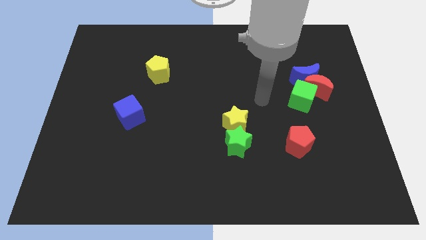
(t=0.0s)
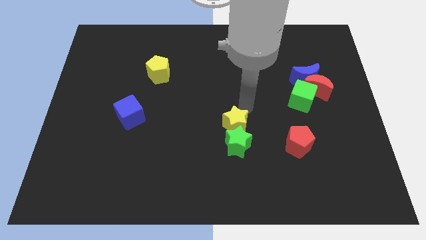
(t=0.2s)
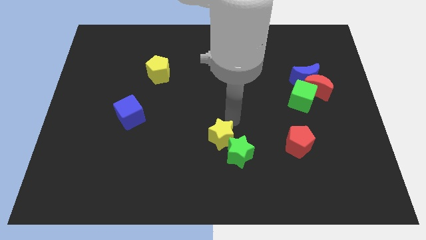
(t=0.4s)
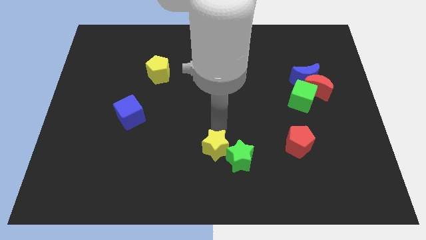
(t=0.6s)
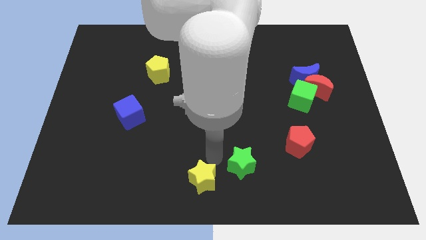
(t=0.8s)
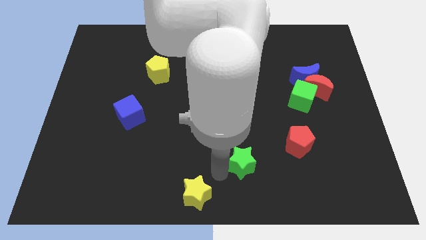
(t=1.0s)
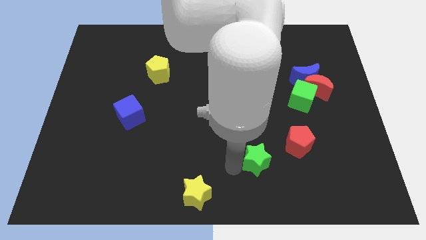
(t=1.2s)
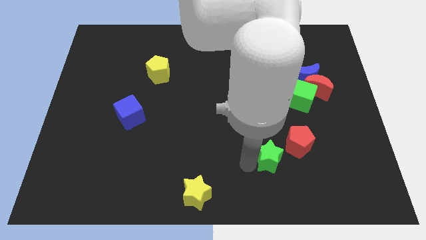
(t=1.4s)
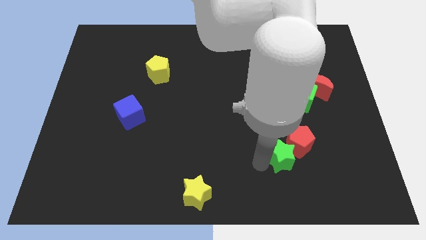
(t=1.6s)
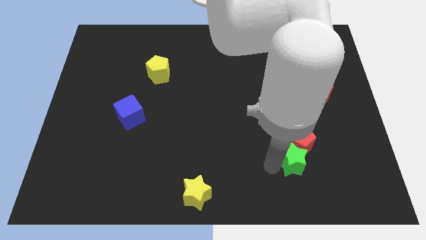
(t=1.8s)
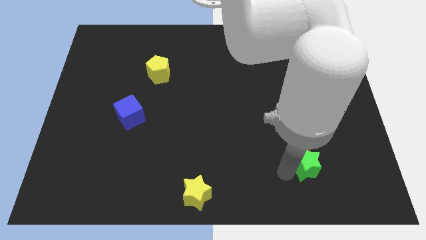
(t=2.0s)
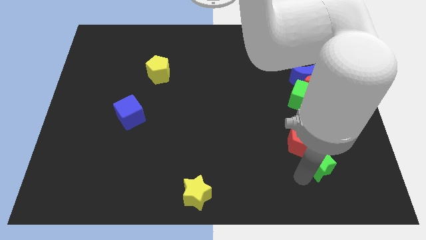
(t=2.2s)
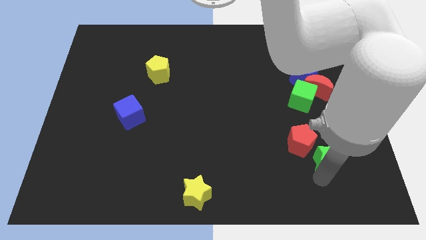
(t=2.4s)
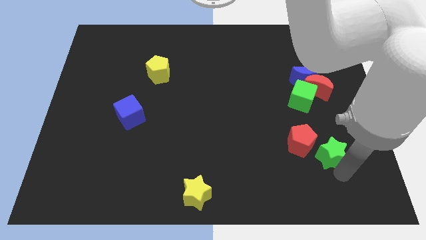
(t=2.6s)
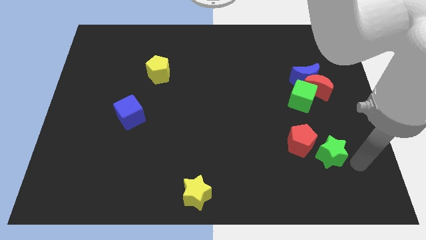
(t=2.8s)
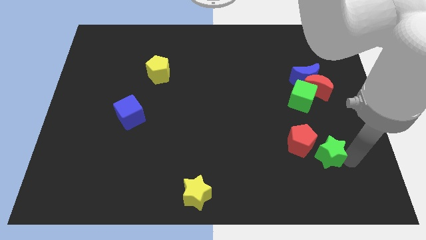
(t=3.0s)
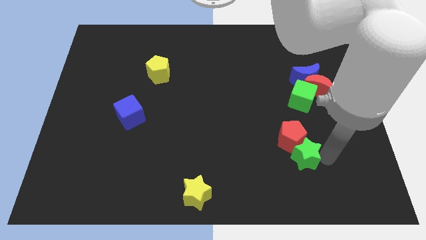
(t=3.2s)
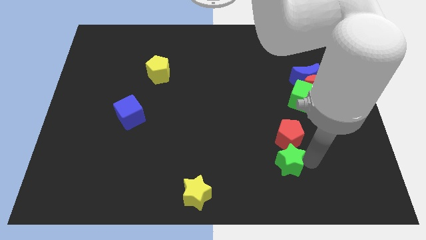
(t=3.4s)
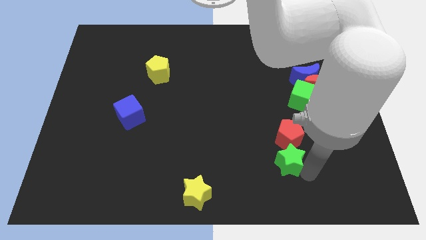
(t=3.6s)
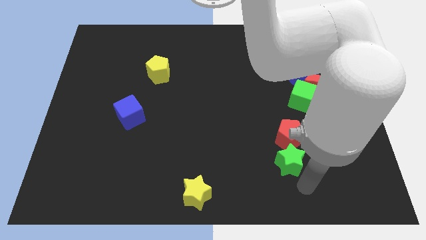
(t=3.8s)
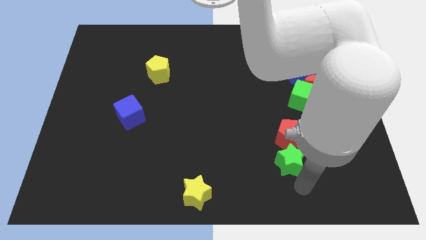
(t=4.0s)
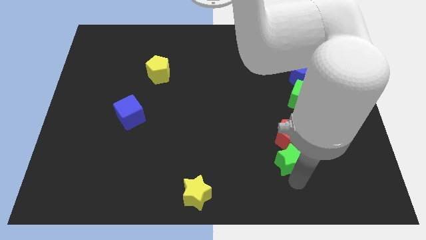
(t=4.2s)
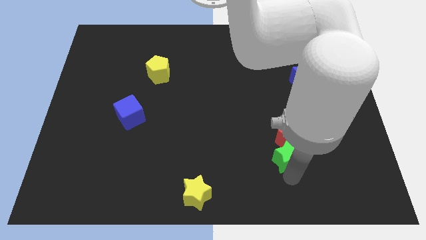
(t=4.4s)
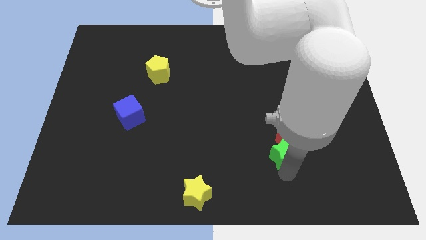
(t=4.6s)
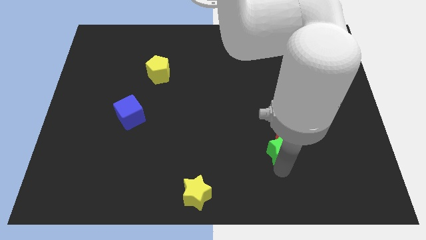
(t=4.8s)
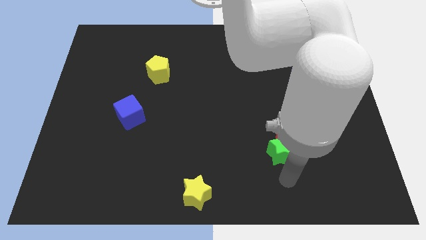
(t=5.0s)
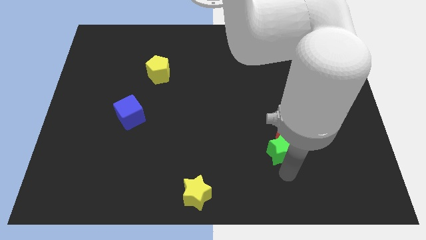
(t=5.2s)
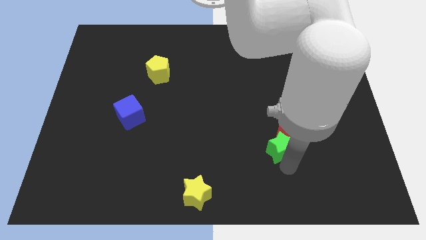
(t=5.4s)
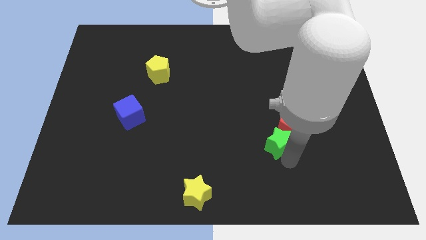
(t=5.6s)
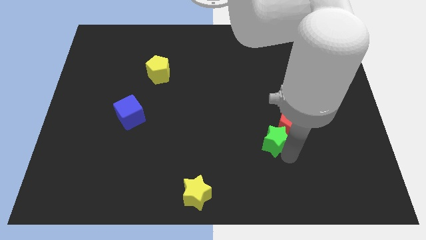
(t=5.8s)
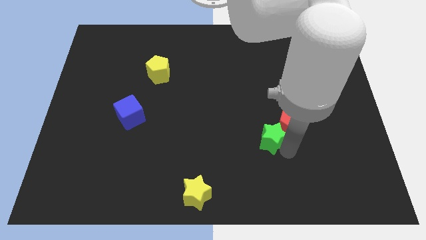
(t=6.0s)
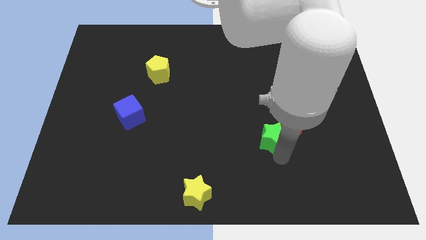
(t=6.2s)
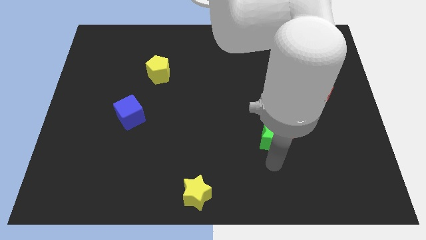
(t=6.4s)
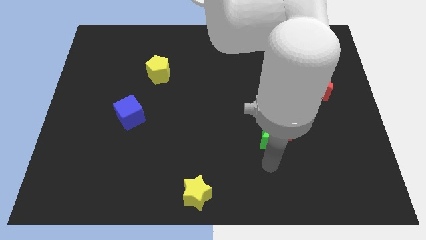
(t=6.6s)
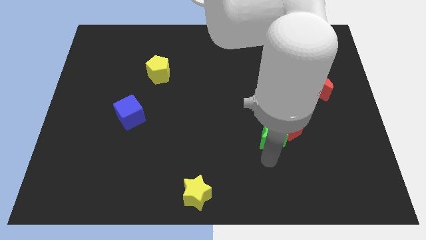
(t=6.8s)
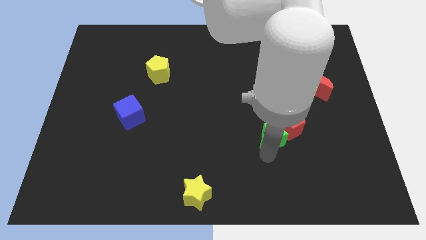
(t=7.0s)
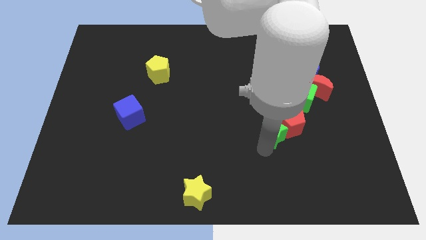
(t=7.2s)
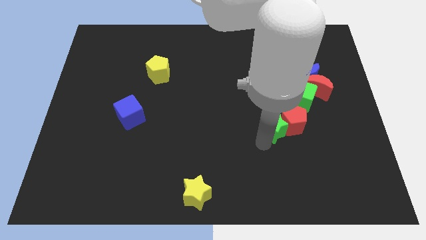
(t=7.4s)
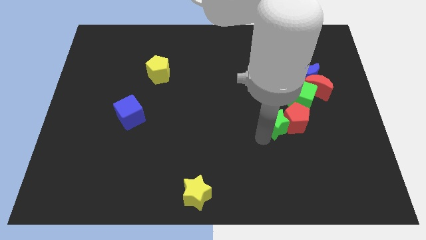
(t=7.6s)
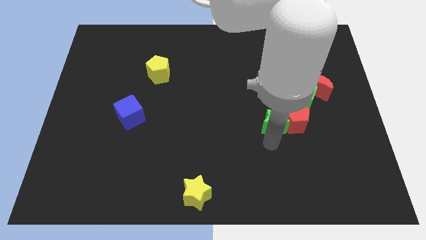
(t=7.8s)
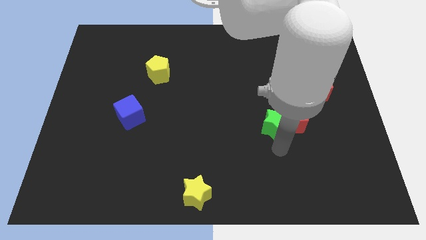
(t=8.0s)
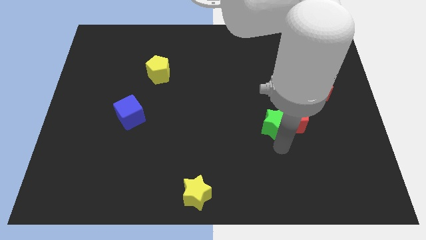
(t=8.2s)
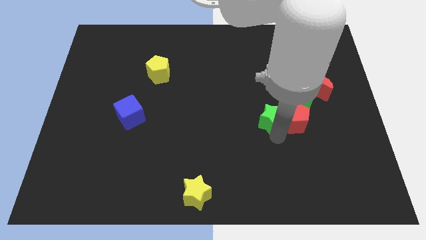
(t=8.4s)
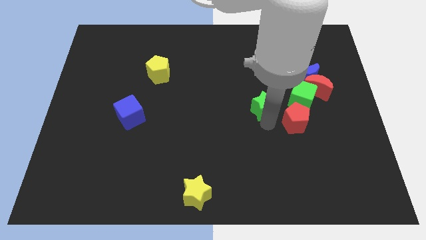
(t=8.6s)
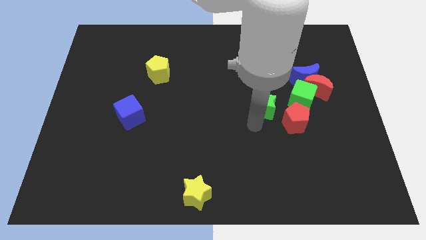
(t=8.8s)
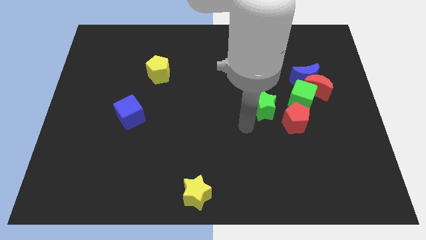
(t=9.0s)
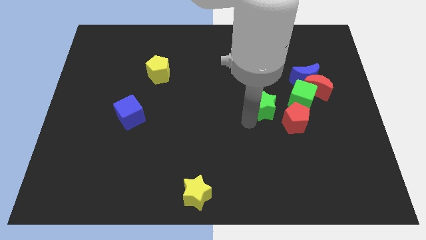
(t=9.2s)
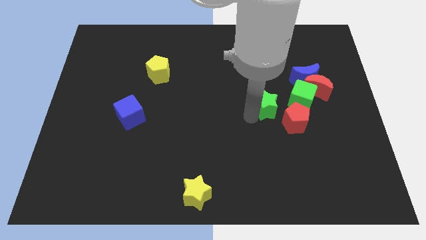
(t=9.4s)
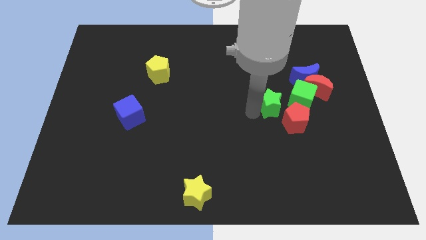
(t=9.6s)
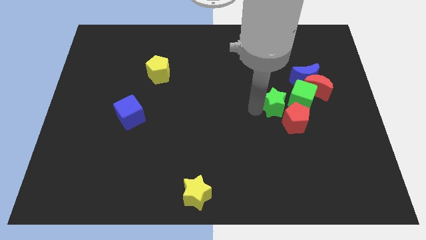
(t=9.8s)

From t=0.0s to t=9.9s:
move the green star to the top side of the red pentagon

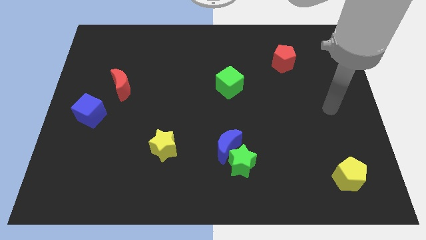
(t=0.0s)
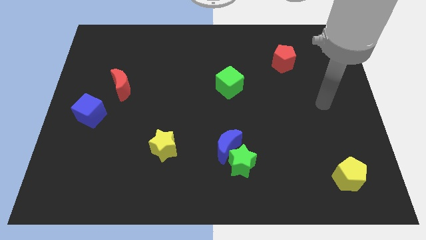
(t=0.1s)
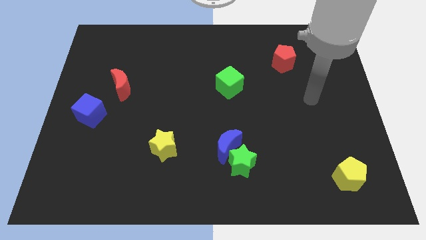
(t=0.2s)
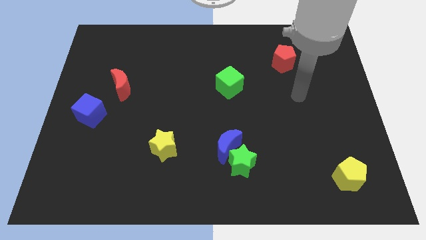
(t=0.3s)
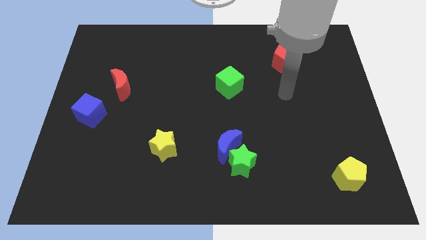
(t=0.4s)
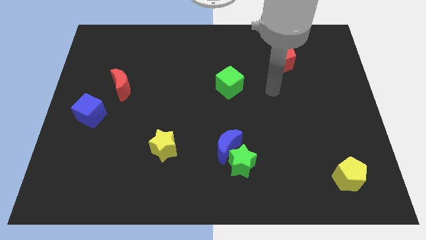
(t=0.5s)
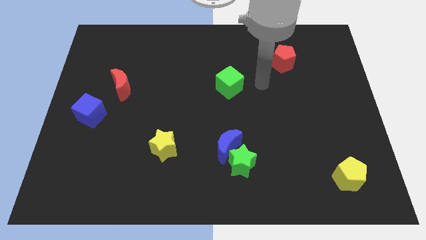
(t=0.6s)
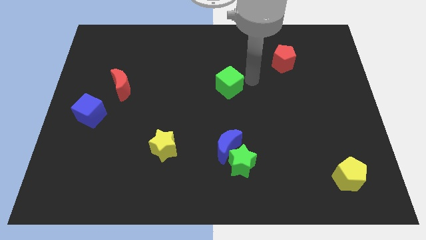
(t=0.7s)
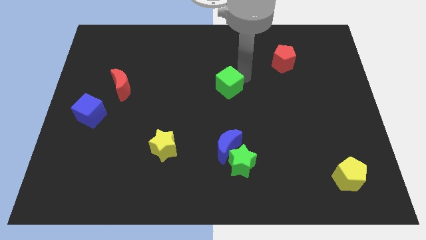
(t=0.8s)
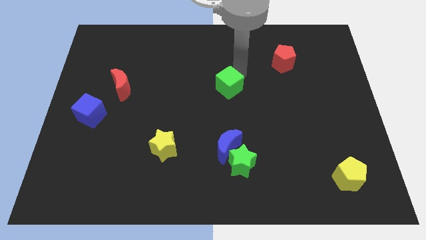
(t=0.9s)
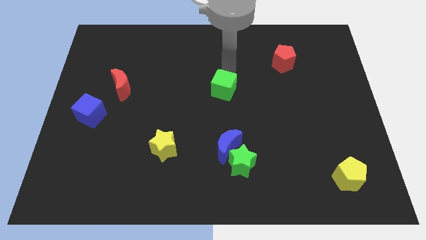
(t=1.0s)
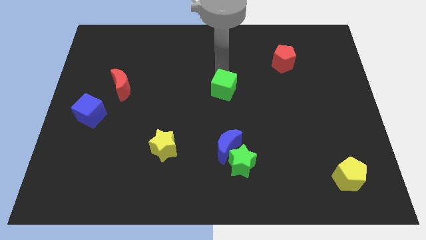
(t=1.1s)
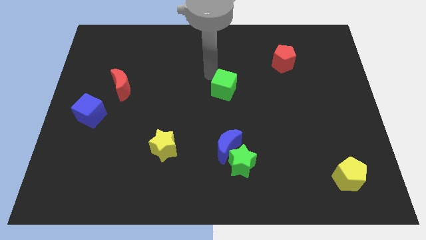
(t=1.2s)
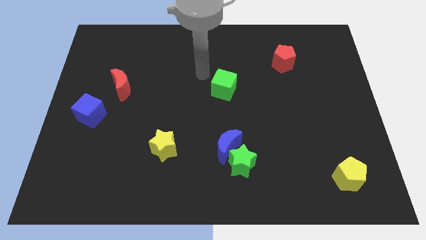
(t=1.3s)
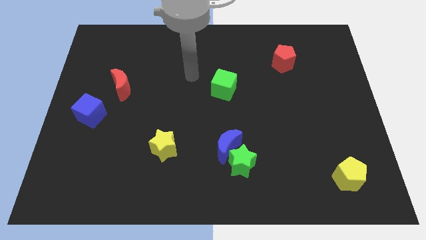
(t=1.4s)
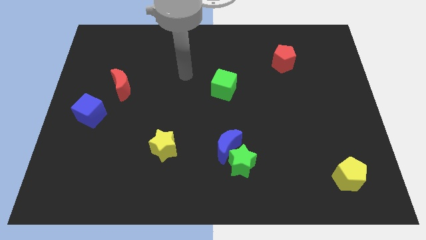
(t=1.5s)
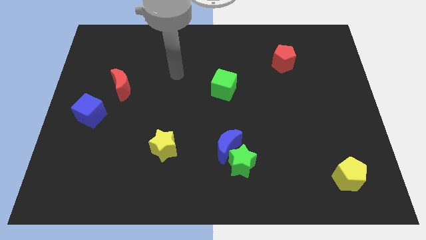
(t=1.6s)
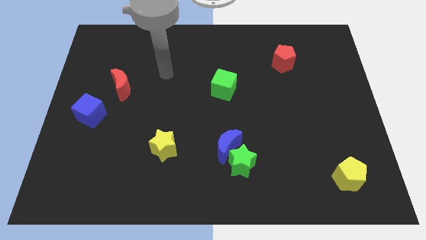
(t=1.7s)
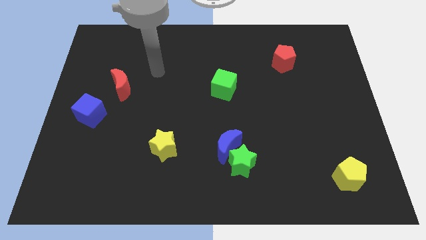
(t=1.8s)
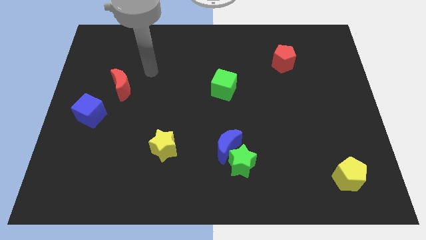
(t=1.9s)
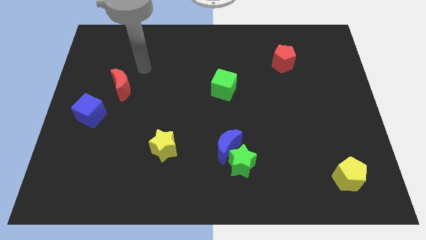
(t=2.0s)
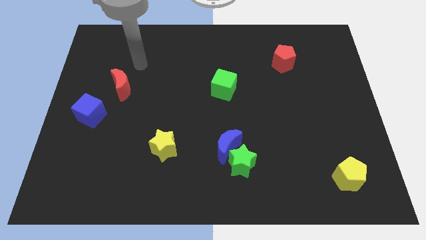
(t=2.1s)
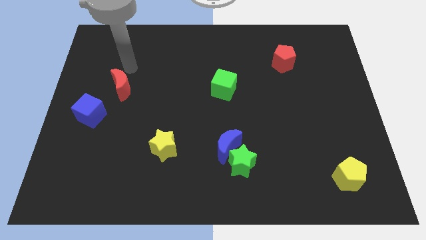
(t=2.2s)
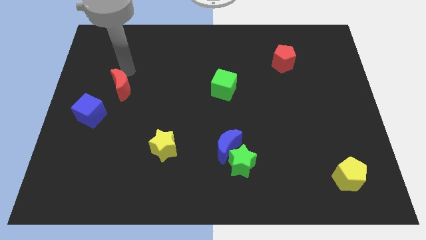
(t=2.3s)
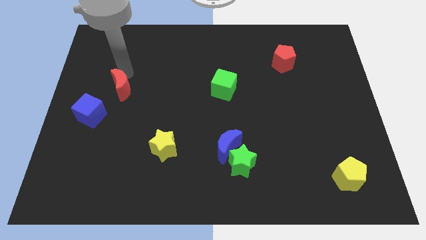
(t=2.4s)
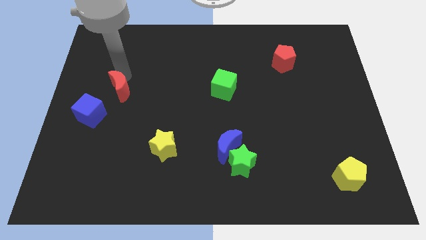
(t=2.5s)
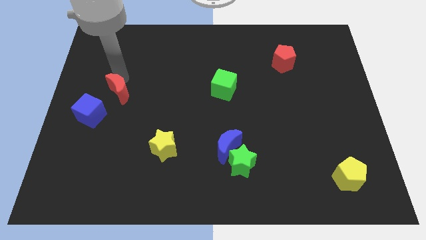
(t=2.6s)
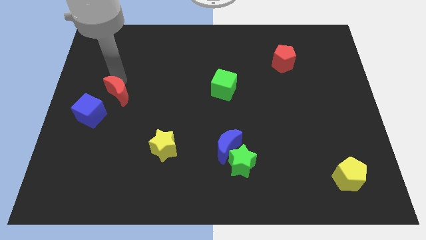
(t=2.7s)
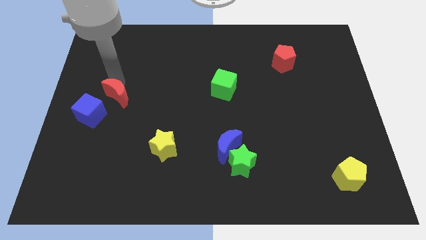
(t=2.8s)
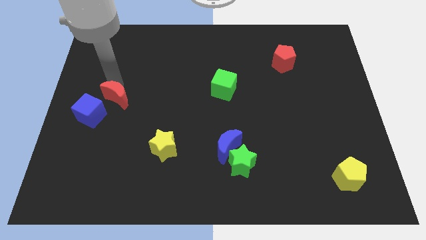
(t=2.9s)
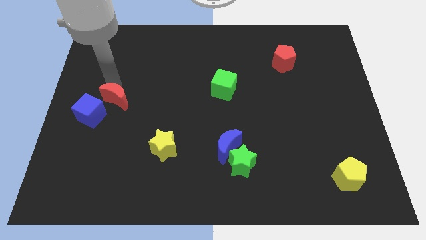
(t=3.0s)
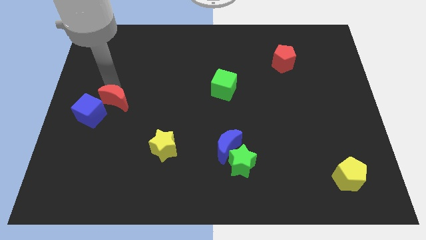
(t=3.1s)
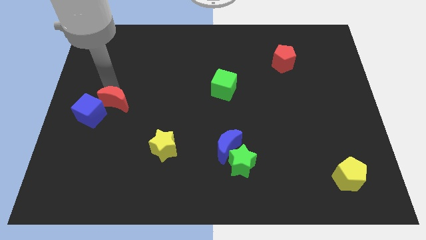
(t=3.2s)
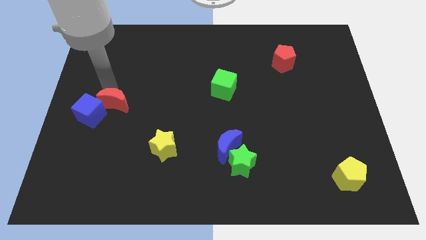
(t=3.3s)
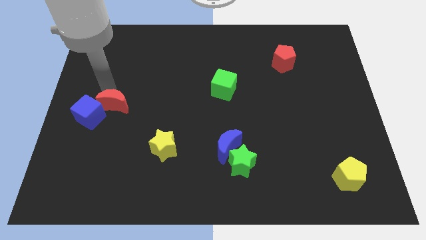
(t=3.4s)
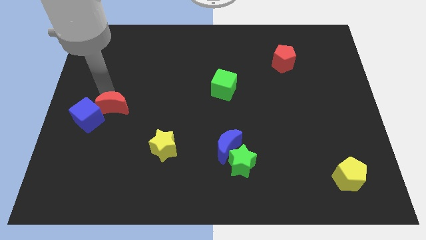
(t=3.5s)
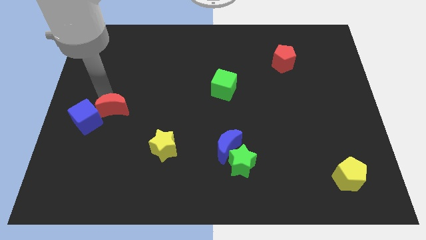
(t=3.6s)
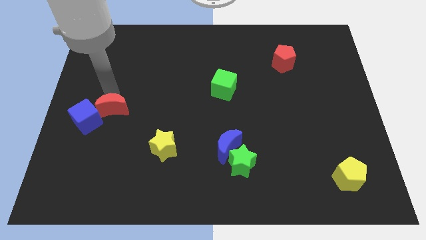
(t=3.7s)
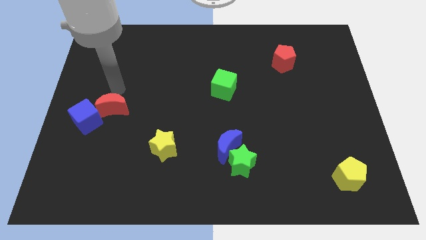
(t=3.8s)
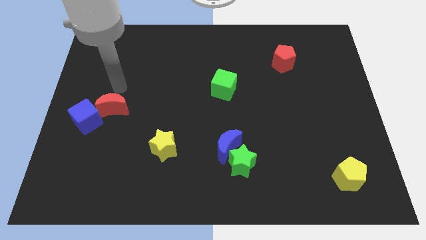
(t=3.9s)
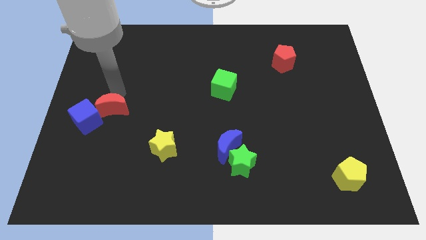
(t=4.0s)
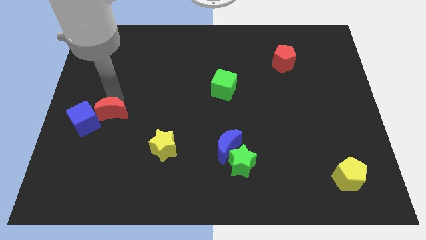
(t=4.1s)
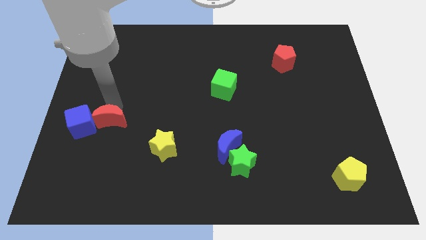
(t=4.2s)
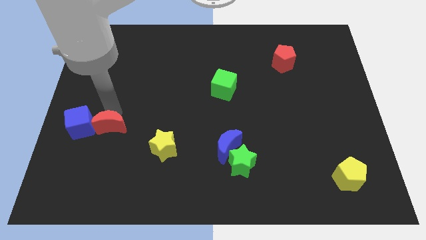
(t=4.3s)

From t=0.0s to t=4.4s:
slide the red moon to the bottom right side of the blue cube
